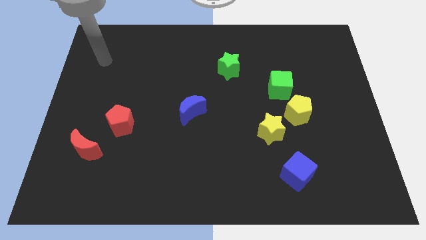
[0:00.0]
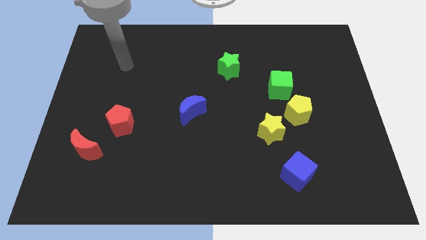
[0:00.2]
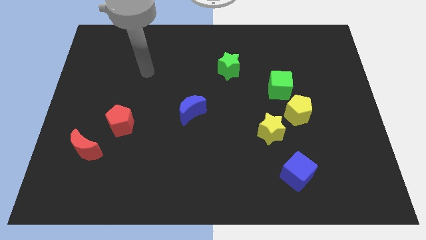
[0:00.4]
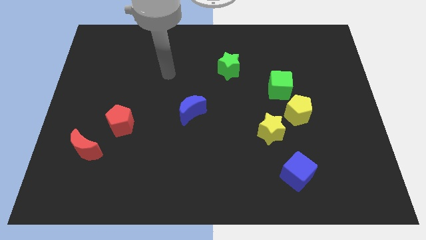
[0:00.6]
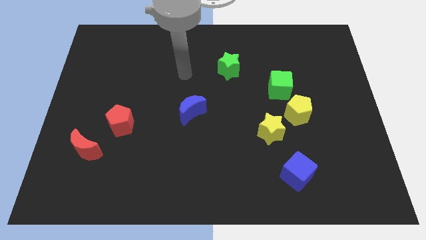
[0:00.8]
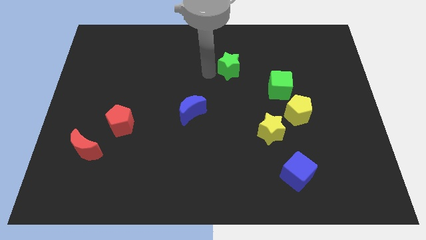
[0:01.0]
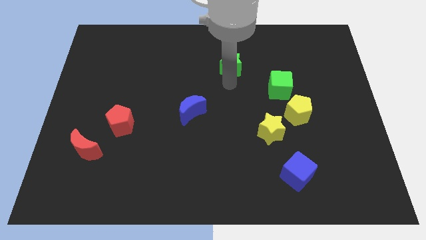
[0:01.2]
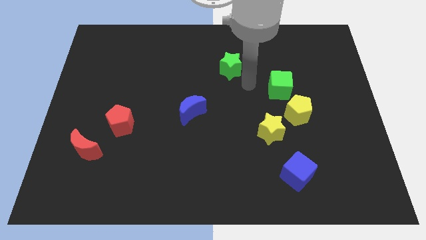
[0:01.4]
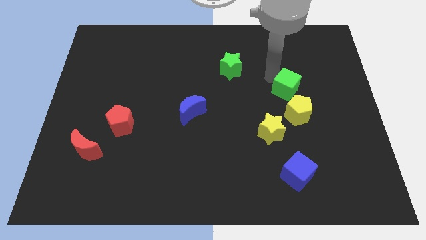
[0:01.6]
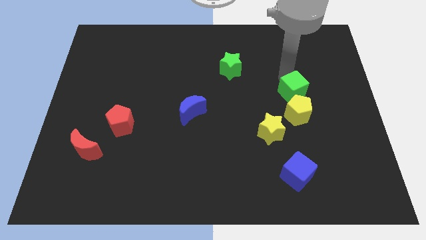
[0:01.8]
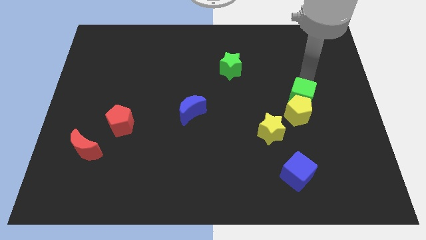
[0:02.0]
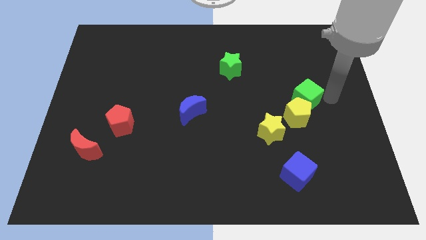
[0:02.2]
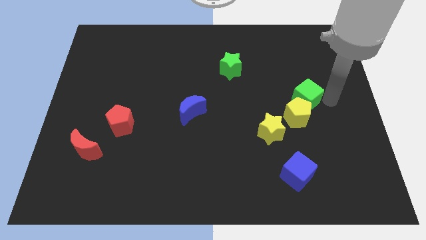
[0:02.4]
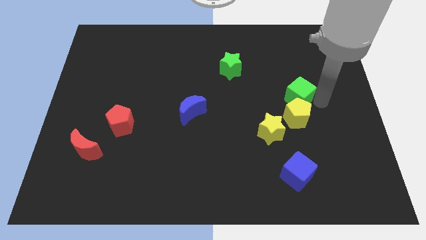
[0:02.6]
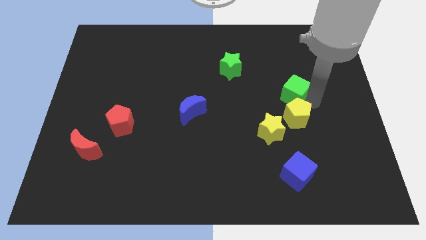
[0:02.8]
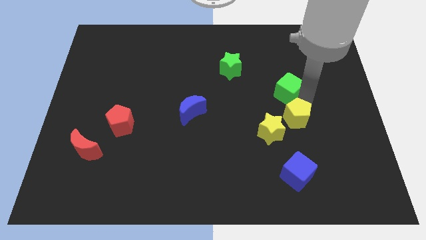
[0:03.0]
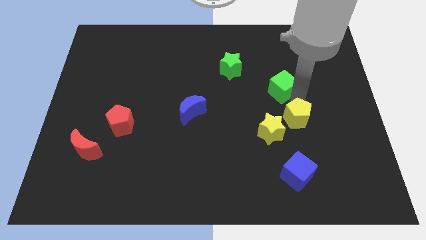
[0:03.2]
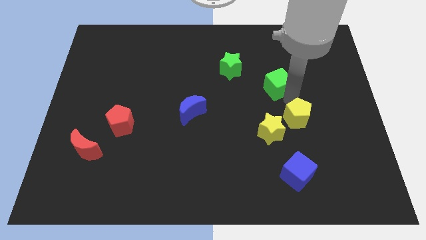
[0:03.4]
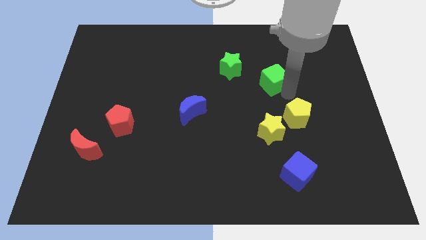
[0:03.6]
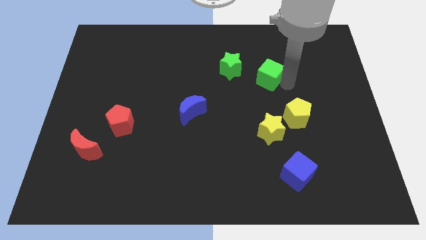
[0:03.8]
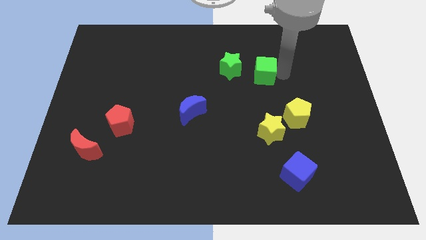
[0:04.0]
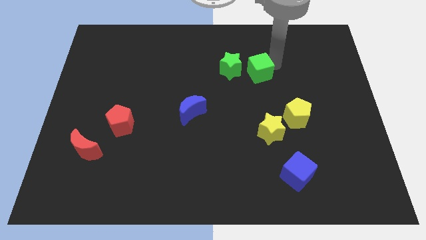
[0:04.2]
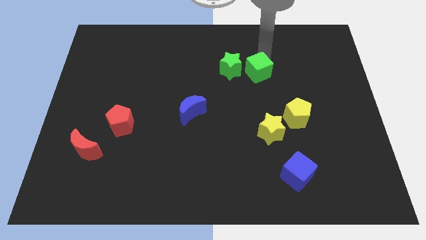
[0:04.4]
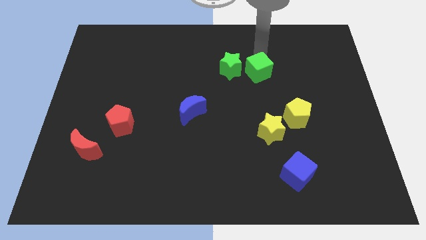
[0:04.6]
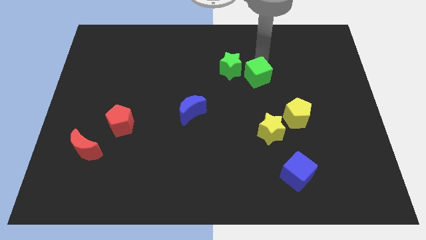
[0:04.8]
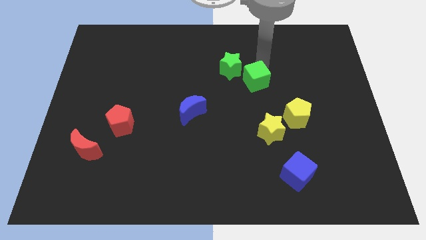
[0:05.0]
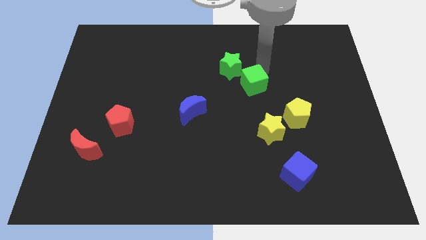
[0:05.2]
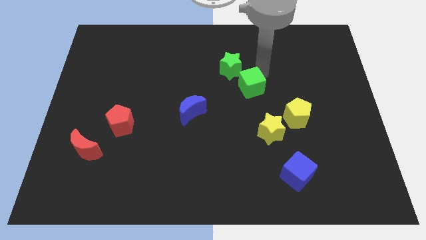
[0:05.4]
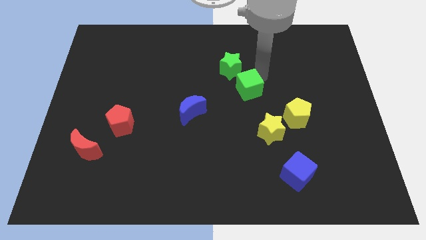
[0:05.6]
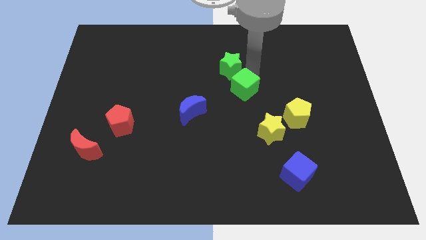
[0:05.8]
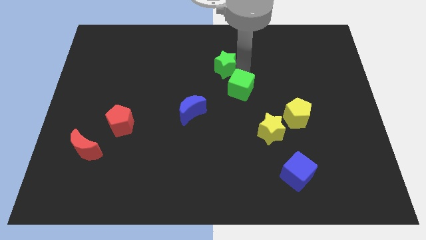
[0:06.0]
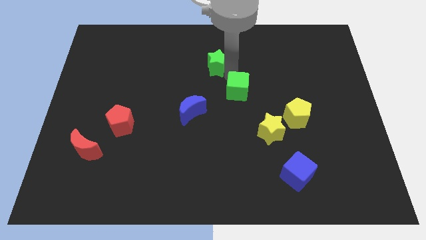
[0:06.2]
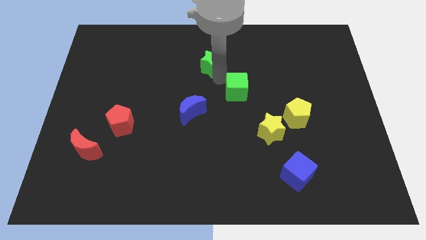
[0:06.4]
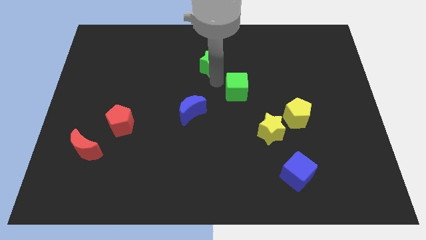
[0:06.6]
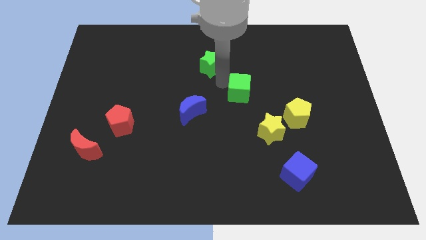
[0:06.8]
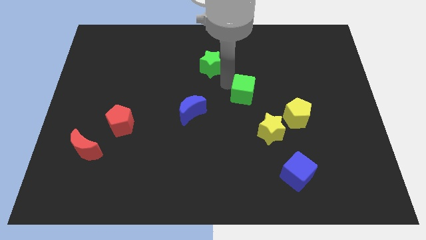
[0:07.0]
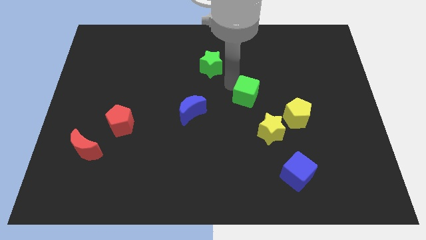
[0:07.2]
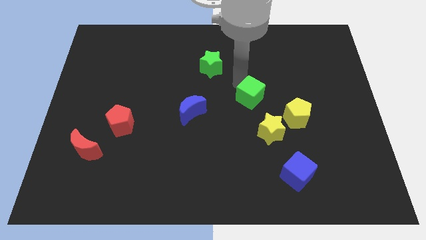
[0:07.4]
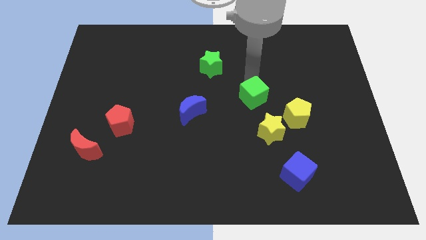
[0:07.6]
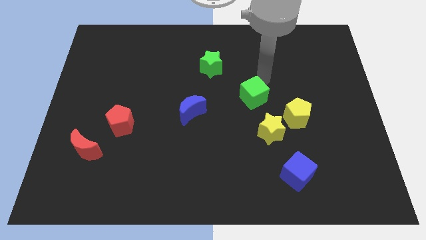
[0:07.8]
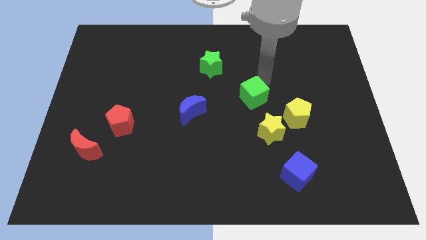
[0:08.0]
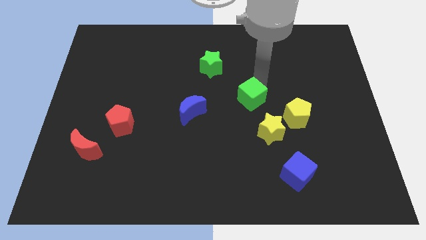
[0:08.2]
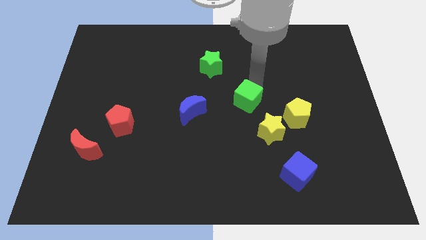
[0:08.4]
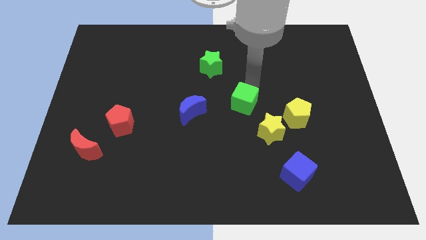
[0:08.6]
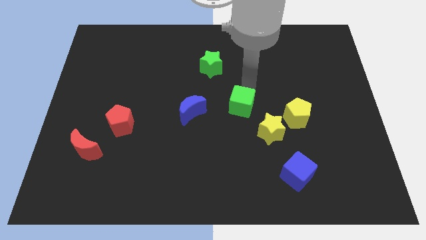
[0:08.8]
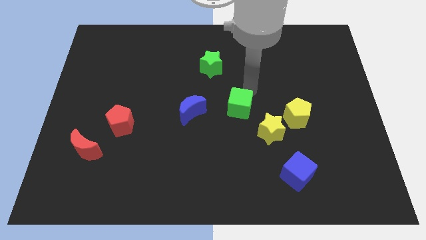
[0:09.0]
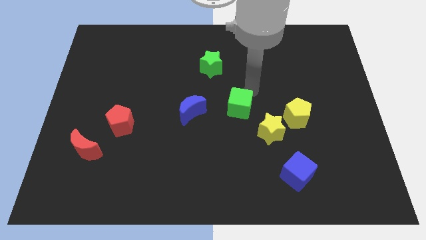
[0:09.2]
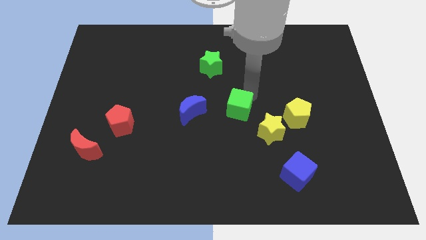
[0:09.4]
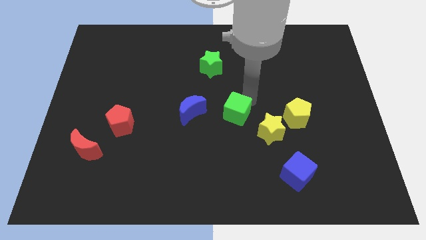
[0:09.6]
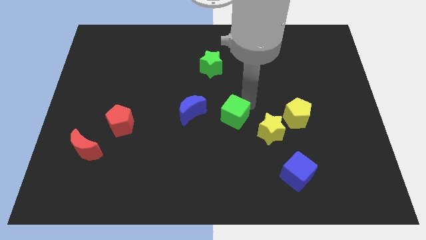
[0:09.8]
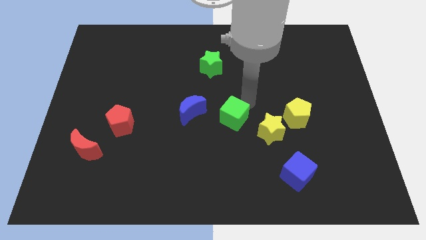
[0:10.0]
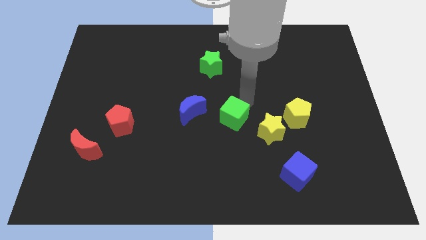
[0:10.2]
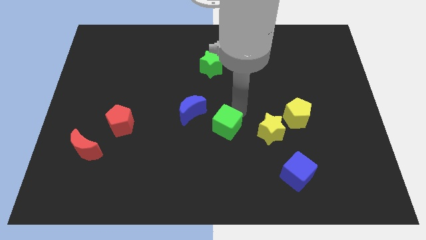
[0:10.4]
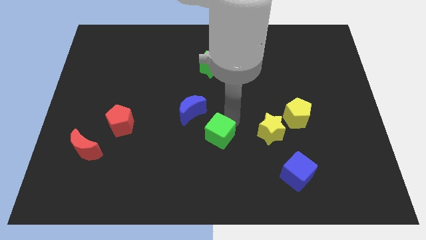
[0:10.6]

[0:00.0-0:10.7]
move the green cube diagonally downwards and to the left

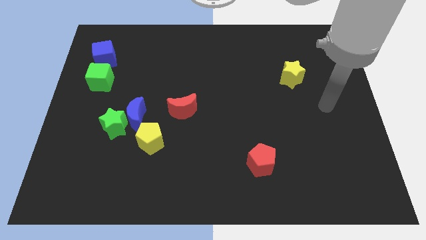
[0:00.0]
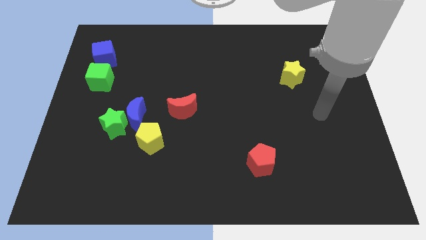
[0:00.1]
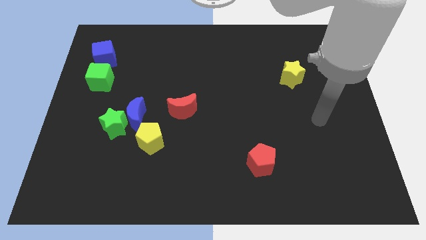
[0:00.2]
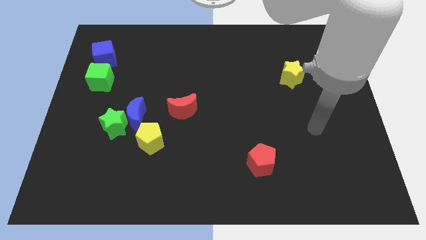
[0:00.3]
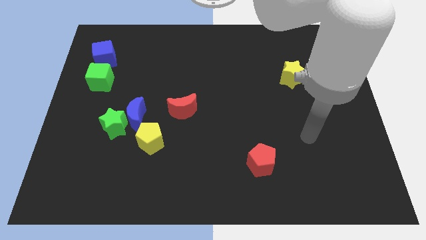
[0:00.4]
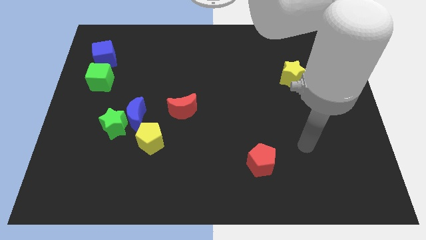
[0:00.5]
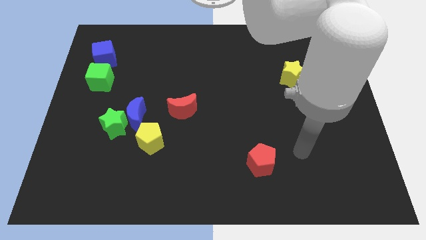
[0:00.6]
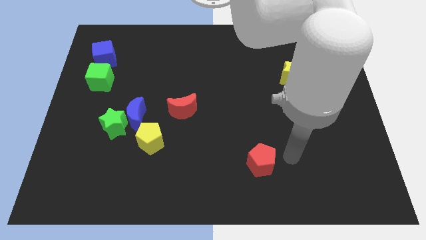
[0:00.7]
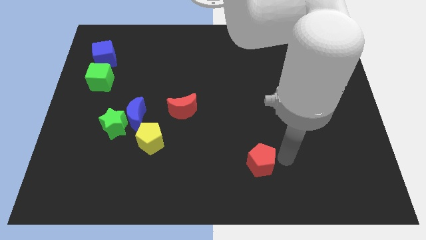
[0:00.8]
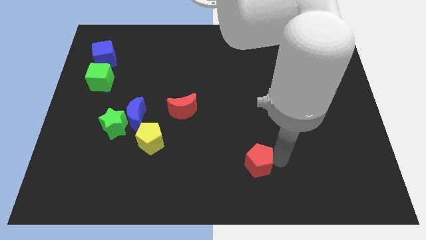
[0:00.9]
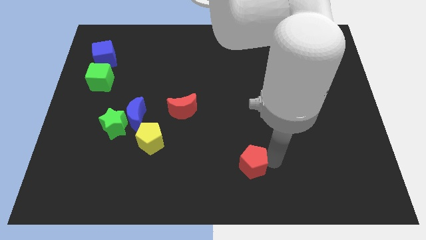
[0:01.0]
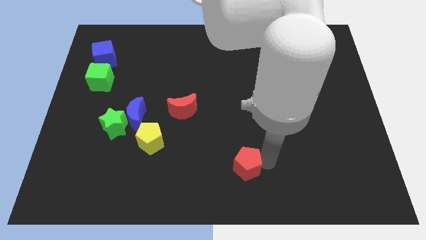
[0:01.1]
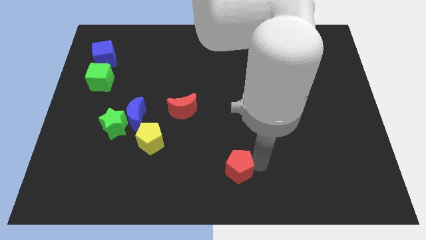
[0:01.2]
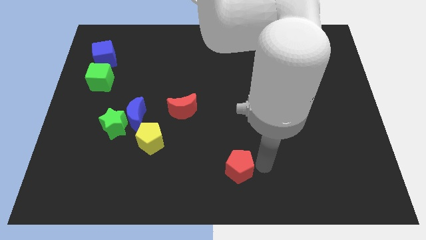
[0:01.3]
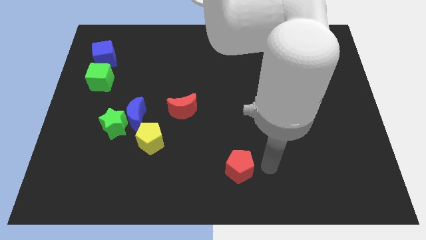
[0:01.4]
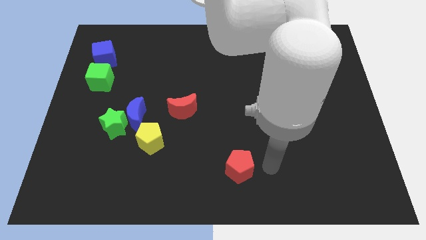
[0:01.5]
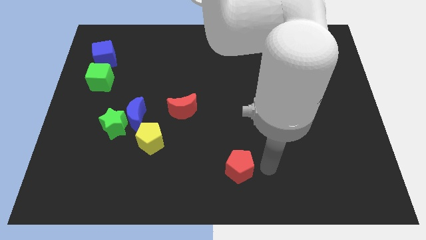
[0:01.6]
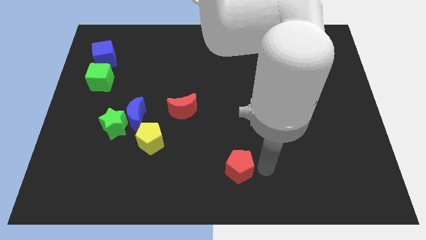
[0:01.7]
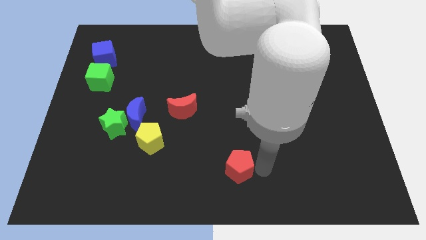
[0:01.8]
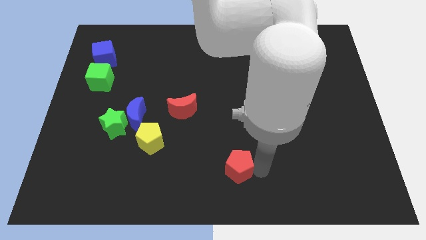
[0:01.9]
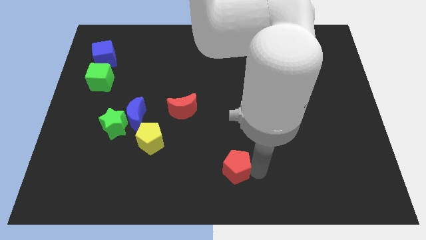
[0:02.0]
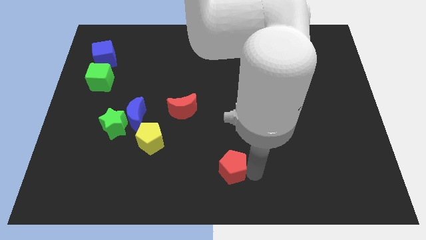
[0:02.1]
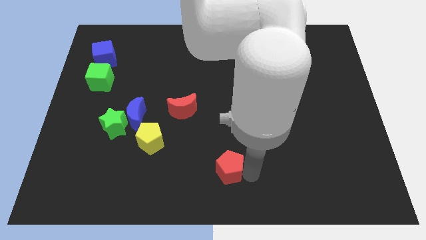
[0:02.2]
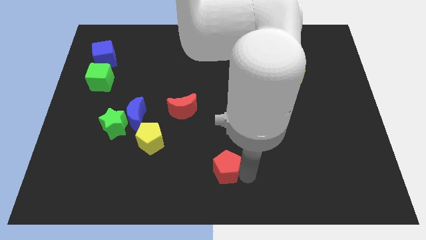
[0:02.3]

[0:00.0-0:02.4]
slide the red pentagon a little bit to the left

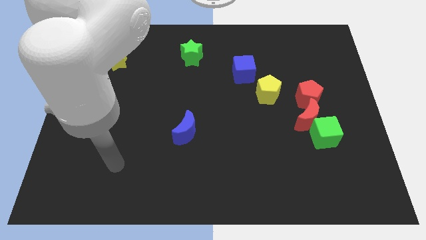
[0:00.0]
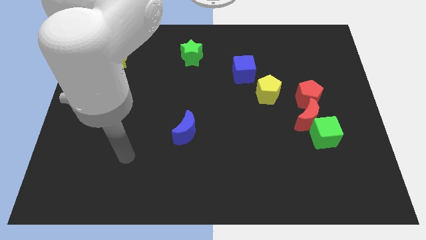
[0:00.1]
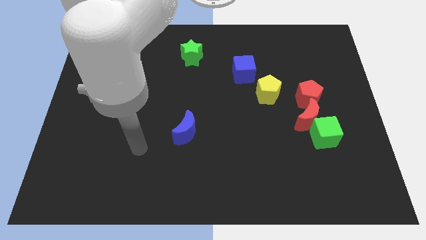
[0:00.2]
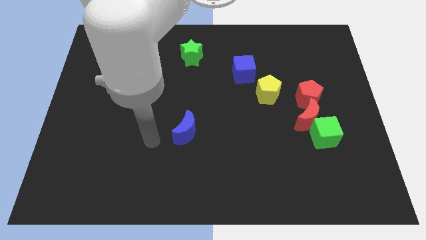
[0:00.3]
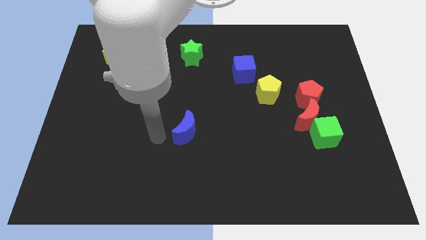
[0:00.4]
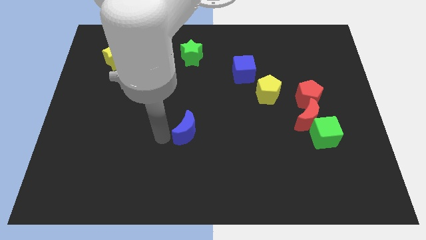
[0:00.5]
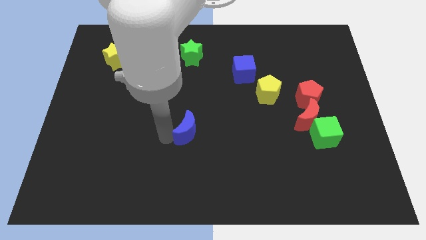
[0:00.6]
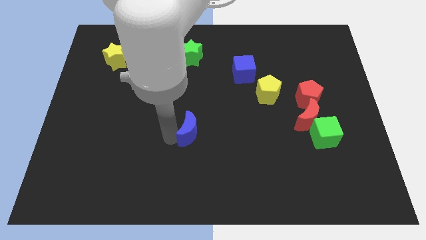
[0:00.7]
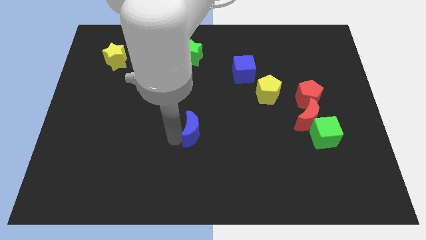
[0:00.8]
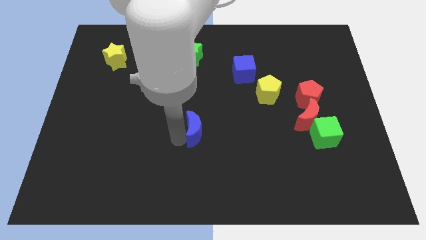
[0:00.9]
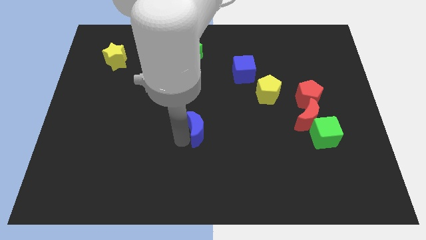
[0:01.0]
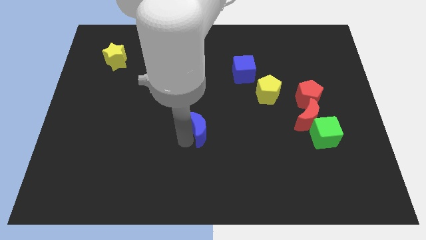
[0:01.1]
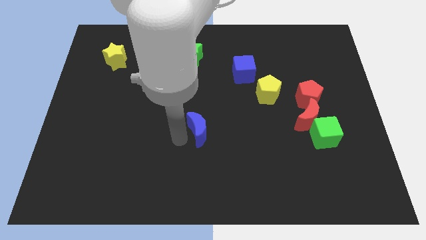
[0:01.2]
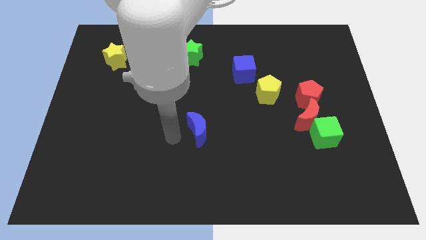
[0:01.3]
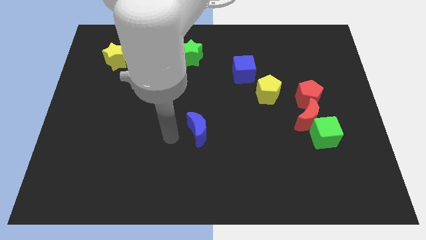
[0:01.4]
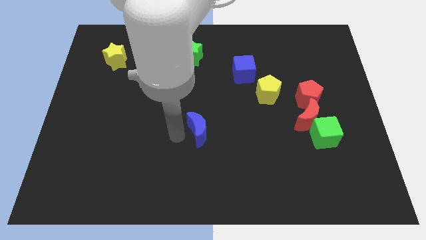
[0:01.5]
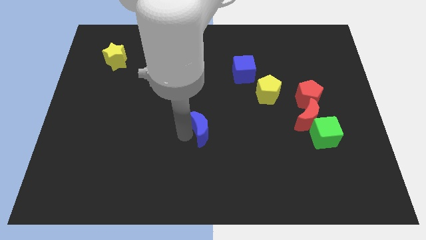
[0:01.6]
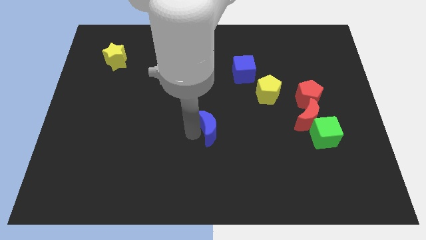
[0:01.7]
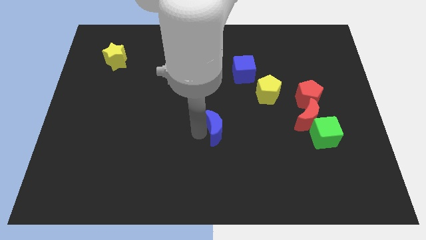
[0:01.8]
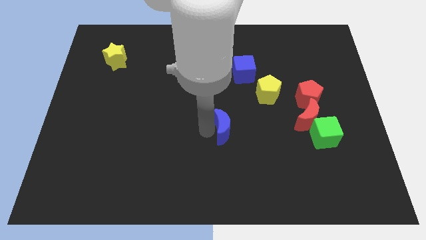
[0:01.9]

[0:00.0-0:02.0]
slightly move the blue moon right
